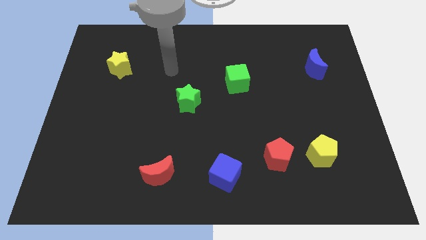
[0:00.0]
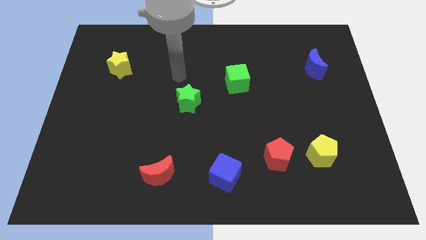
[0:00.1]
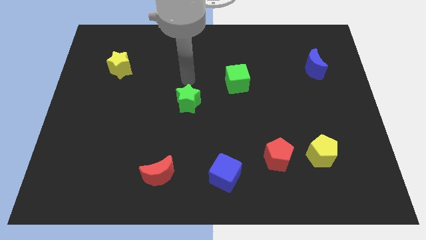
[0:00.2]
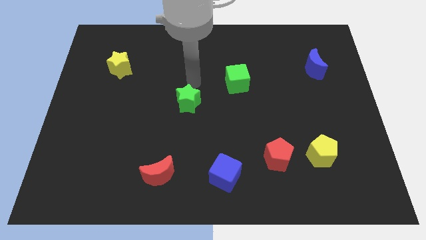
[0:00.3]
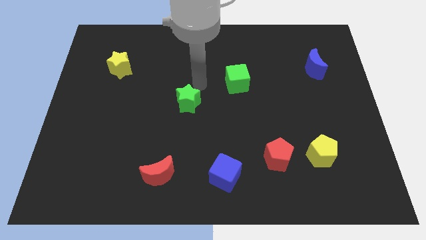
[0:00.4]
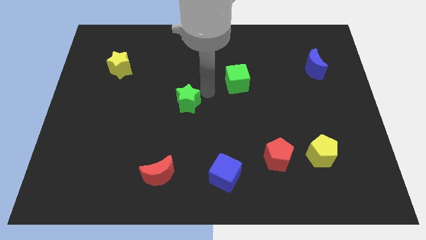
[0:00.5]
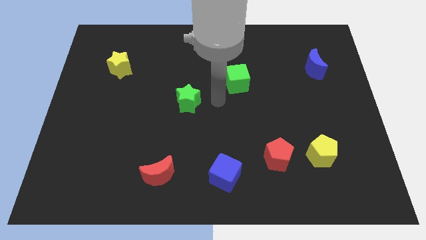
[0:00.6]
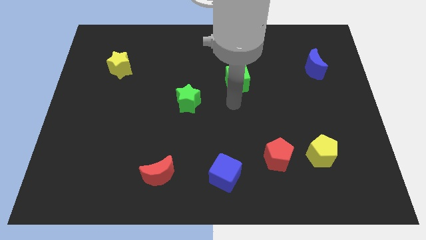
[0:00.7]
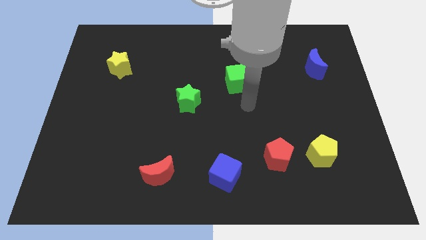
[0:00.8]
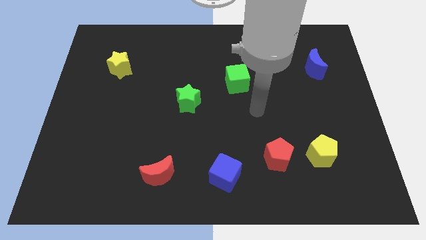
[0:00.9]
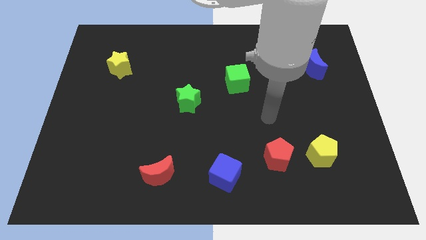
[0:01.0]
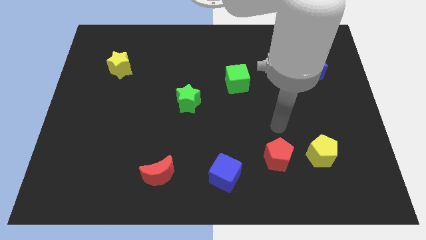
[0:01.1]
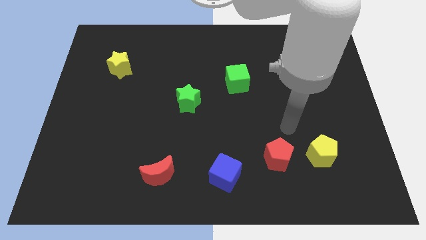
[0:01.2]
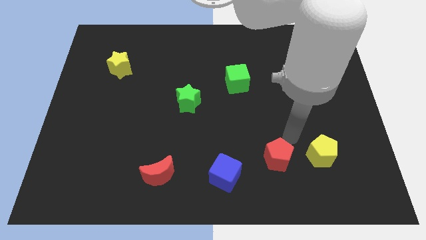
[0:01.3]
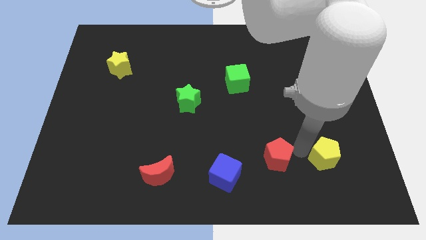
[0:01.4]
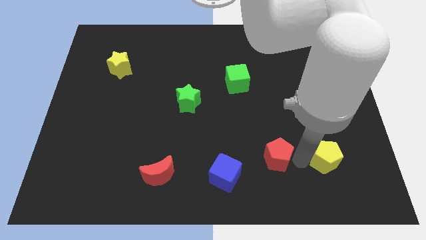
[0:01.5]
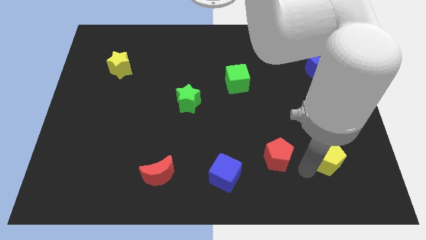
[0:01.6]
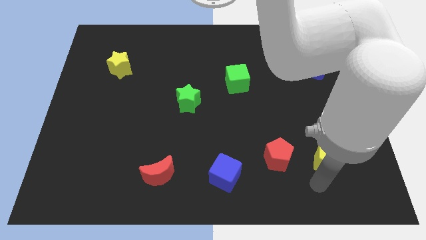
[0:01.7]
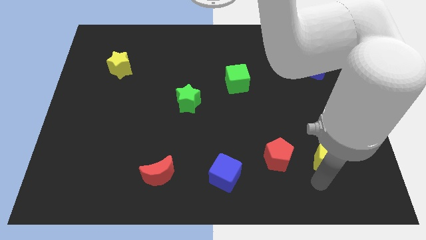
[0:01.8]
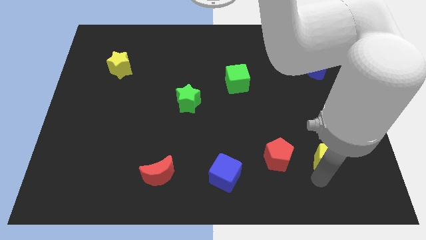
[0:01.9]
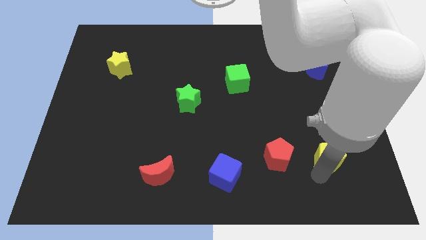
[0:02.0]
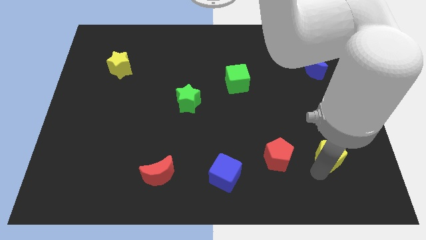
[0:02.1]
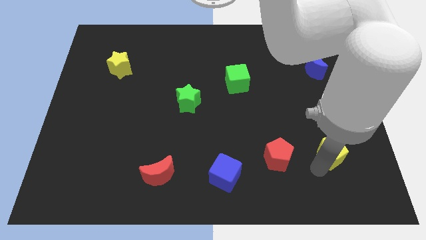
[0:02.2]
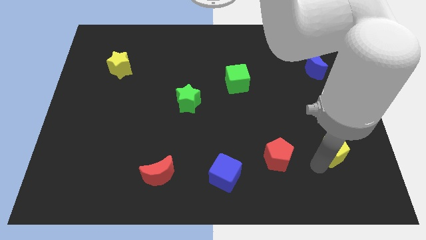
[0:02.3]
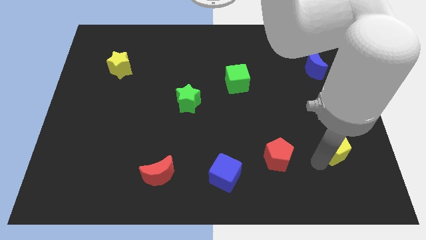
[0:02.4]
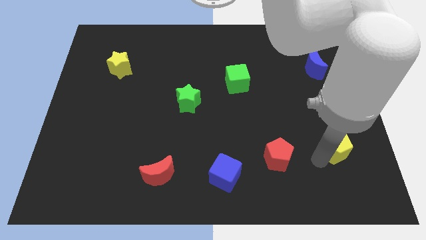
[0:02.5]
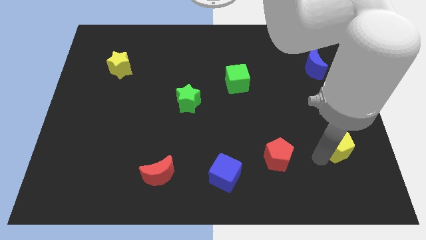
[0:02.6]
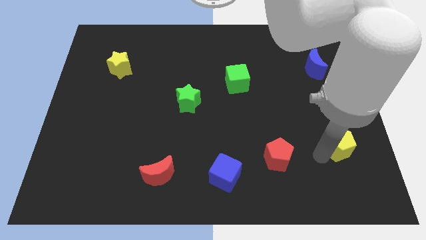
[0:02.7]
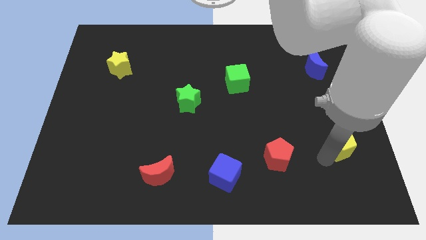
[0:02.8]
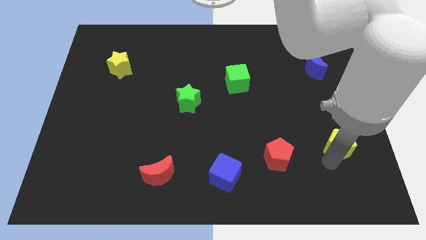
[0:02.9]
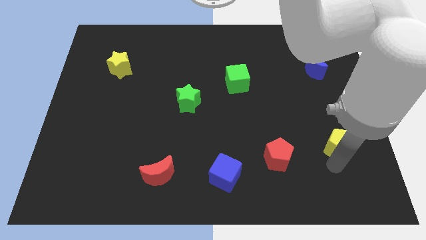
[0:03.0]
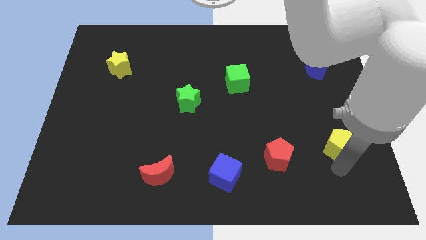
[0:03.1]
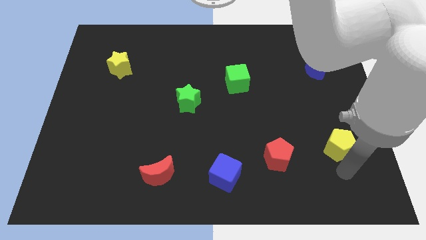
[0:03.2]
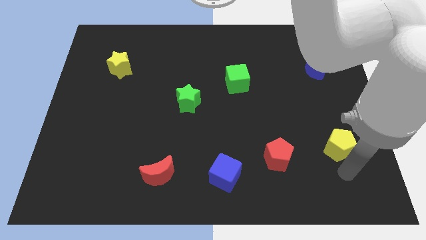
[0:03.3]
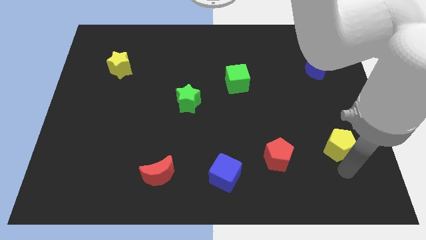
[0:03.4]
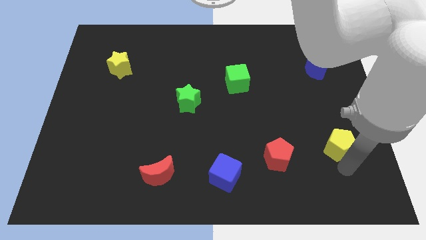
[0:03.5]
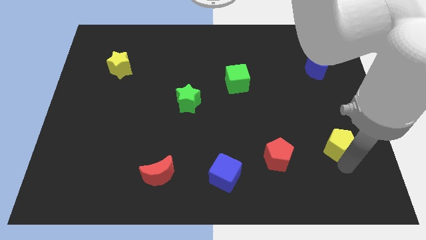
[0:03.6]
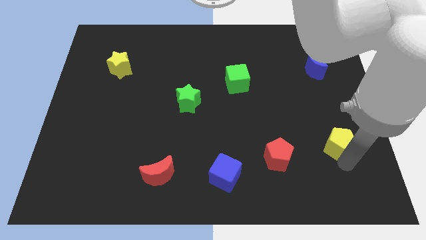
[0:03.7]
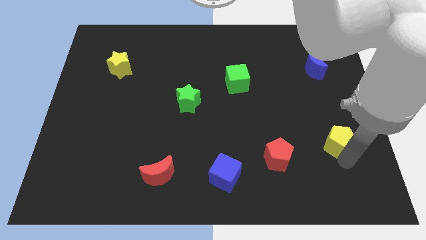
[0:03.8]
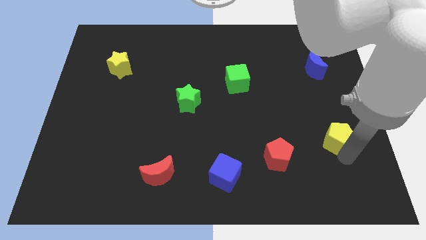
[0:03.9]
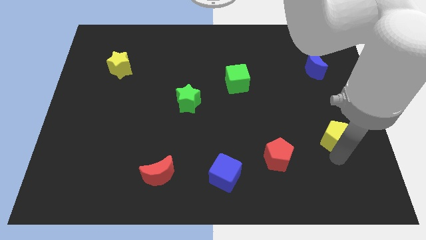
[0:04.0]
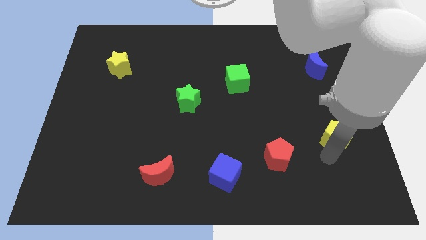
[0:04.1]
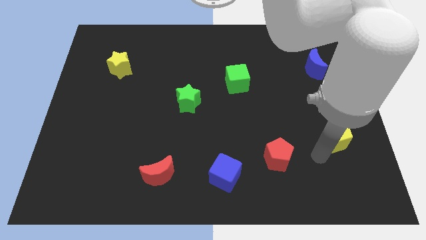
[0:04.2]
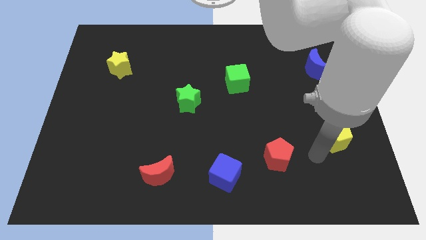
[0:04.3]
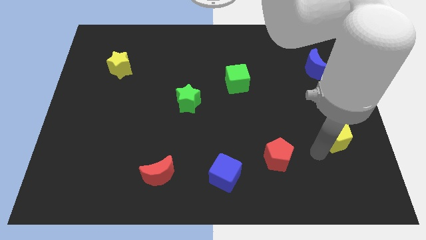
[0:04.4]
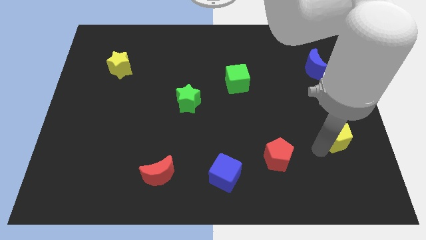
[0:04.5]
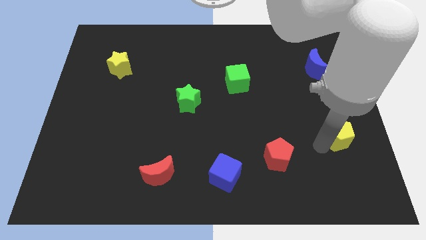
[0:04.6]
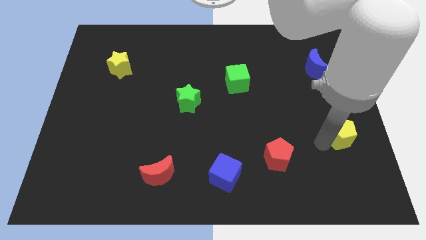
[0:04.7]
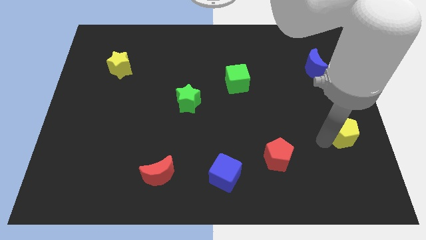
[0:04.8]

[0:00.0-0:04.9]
push the yellow pentagon to the right side of the board
